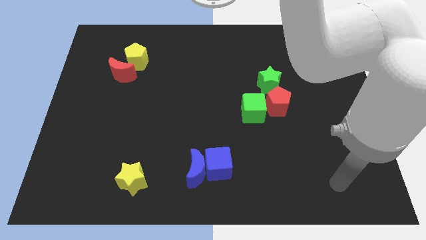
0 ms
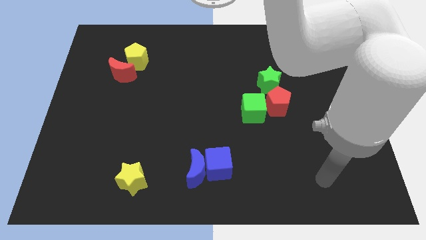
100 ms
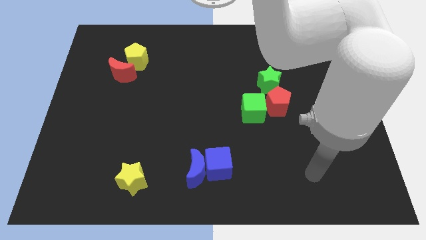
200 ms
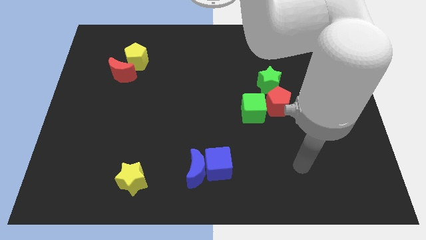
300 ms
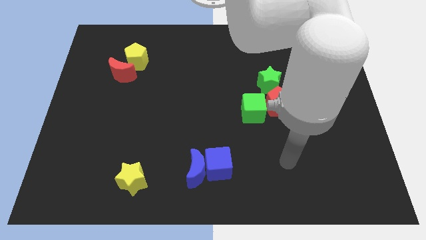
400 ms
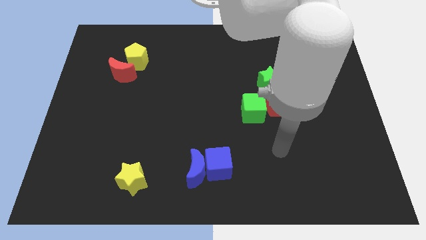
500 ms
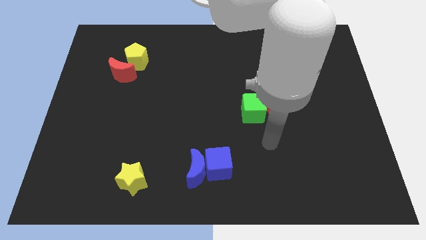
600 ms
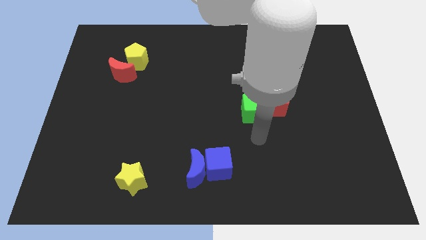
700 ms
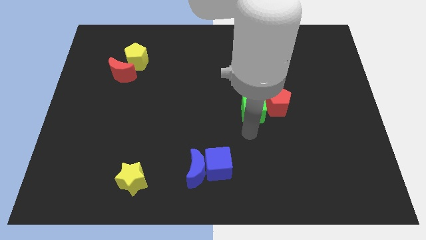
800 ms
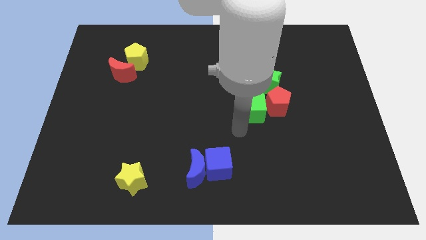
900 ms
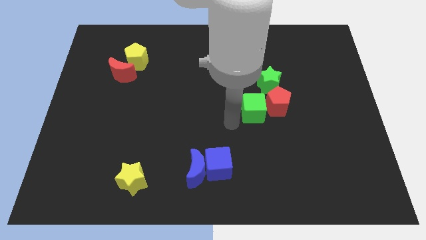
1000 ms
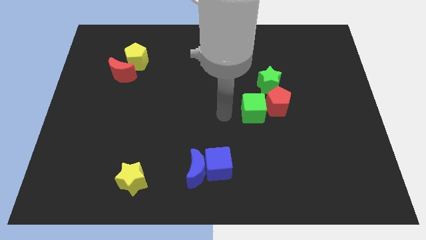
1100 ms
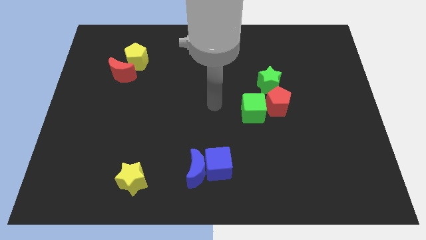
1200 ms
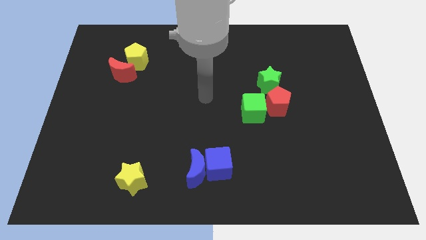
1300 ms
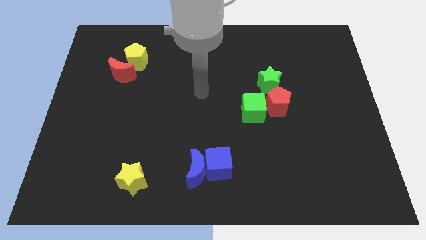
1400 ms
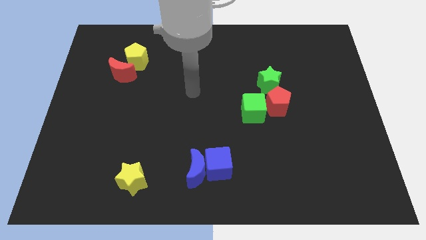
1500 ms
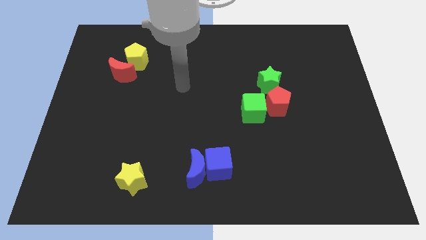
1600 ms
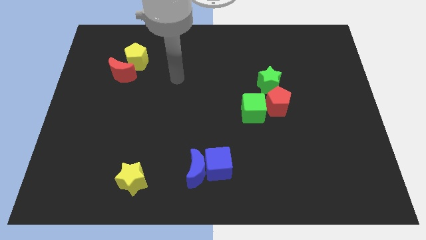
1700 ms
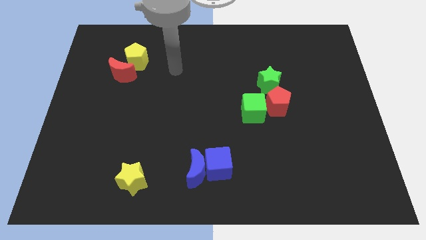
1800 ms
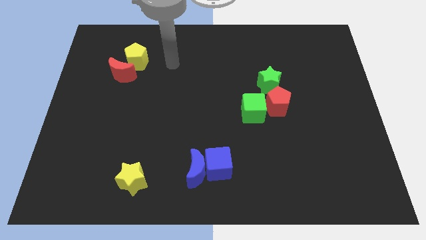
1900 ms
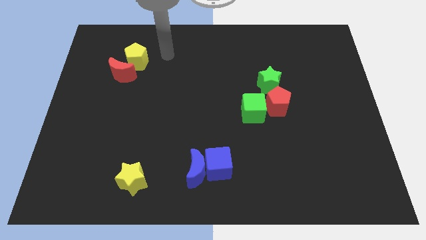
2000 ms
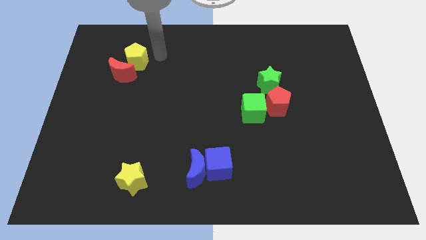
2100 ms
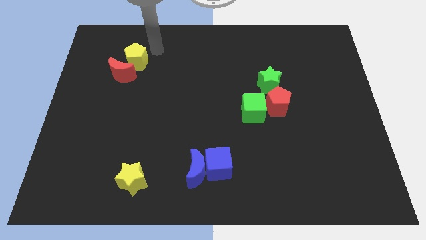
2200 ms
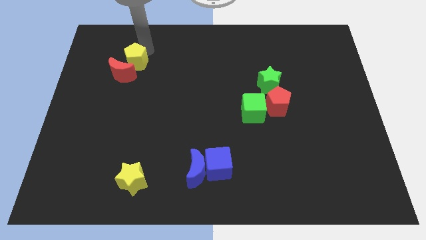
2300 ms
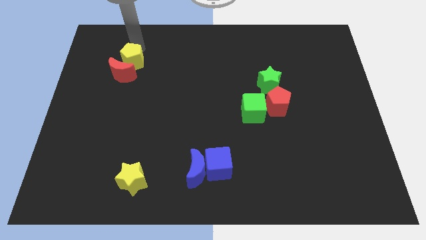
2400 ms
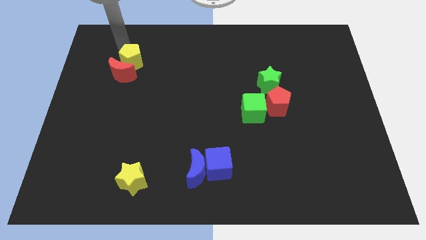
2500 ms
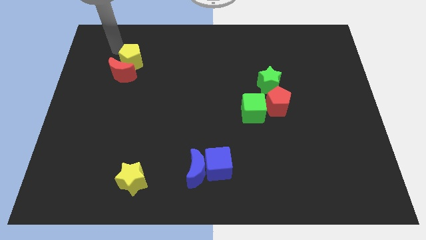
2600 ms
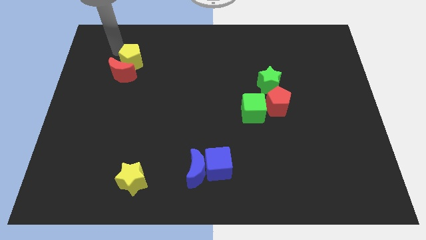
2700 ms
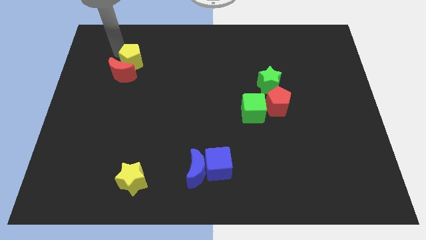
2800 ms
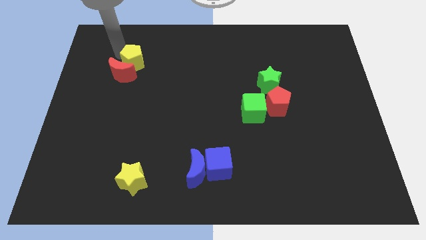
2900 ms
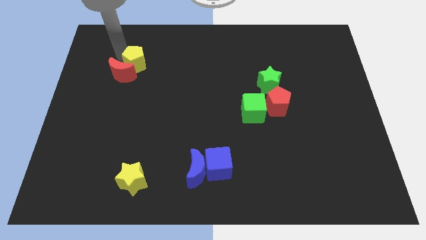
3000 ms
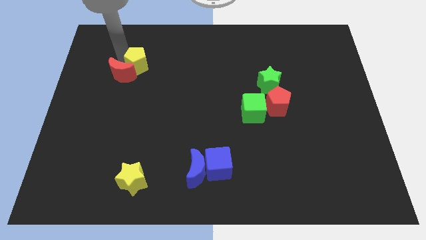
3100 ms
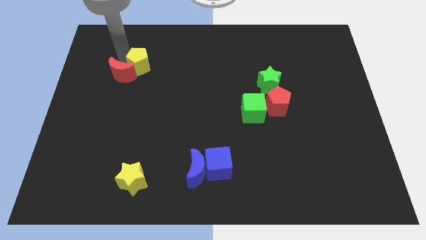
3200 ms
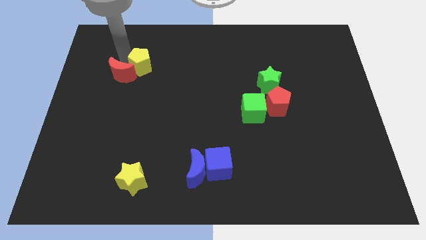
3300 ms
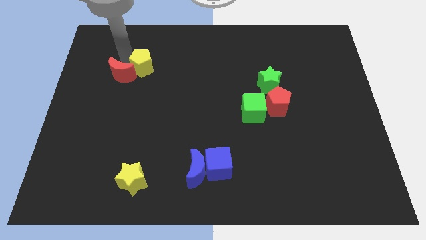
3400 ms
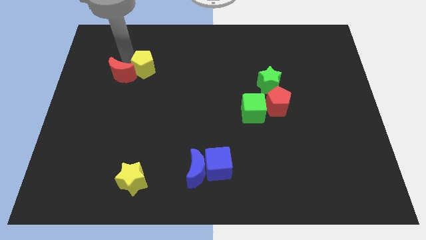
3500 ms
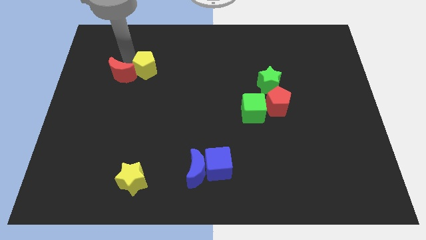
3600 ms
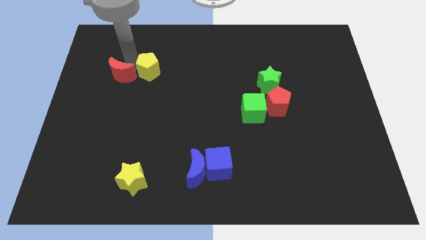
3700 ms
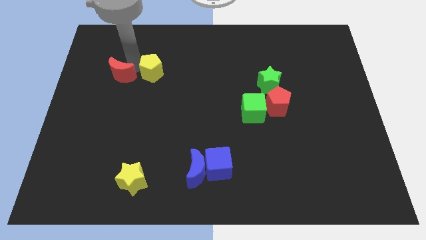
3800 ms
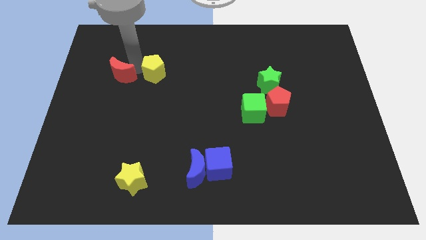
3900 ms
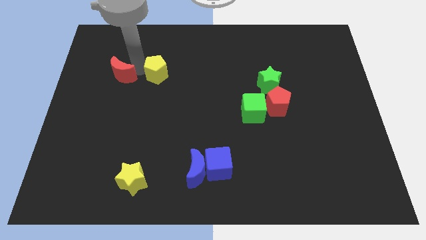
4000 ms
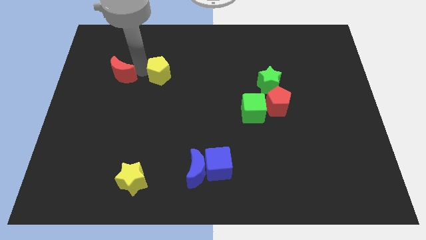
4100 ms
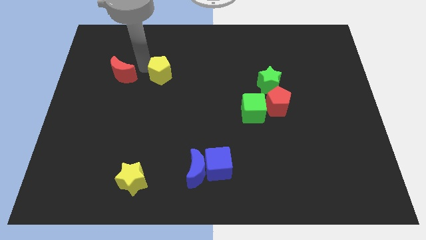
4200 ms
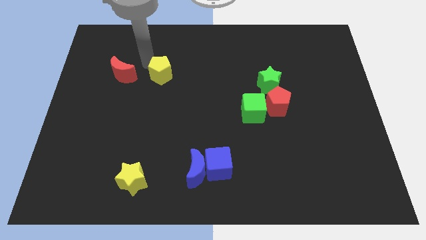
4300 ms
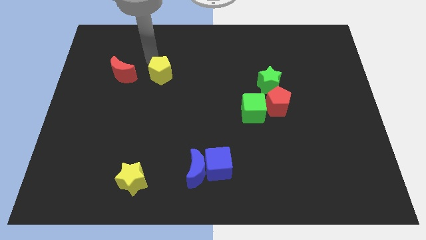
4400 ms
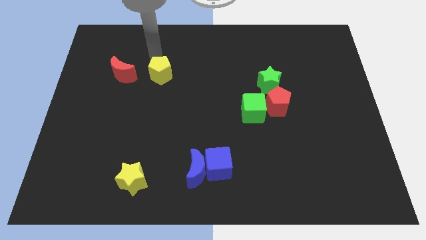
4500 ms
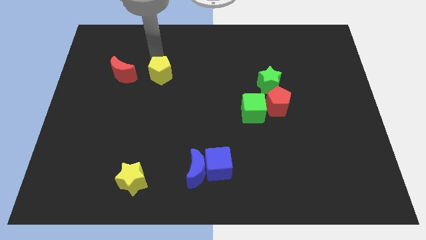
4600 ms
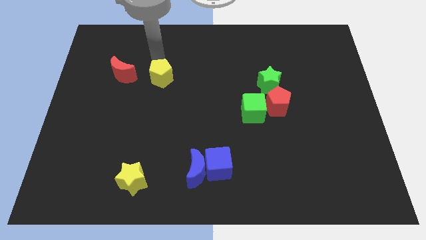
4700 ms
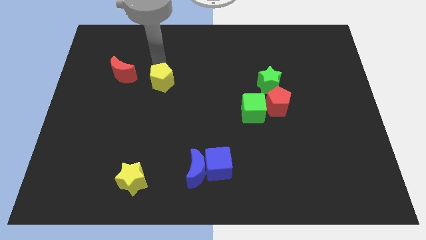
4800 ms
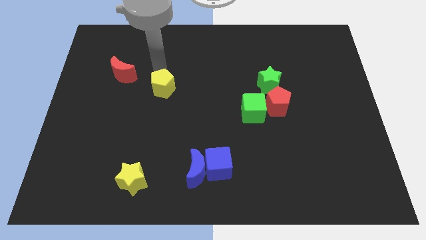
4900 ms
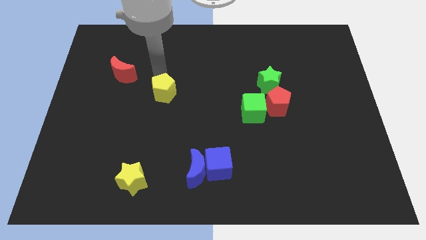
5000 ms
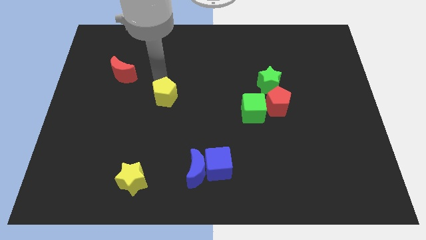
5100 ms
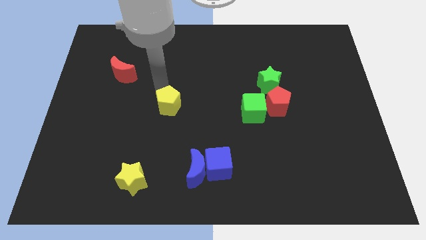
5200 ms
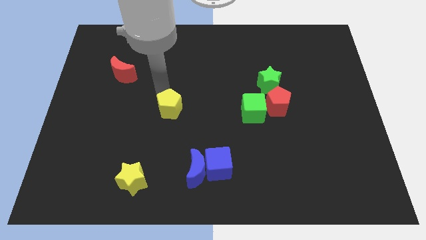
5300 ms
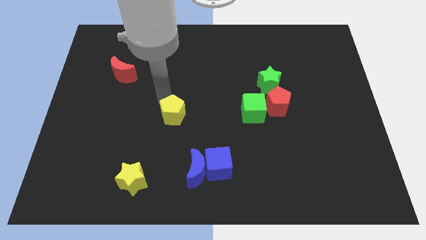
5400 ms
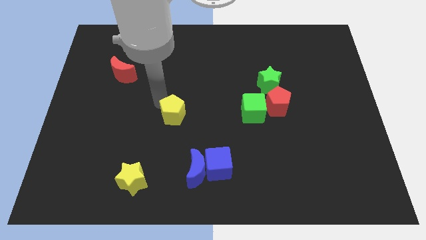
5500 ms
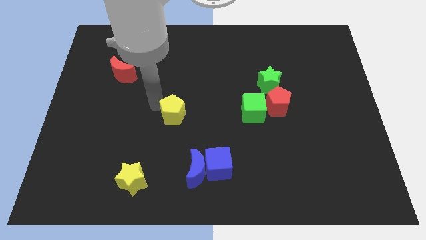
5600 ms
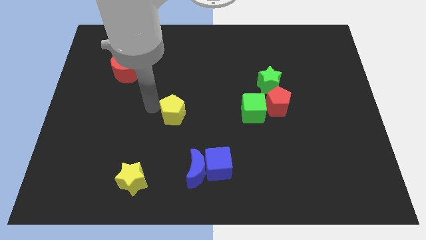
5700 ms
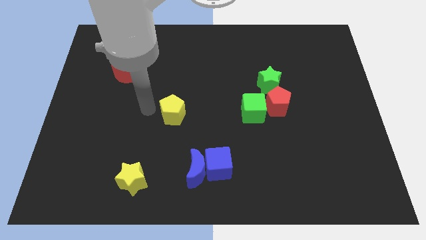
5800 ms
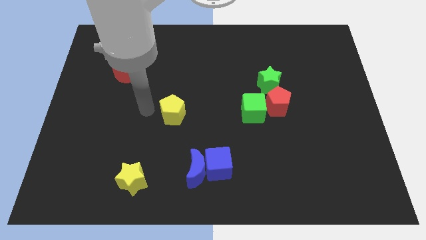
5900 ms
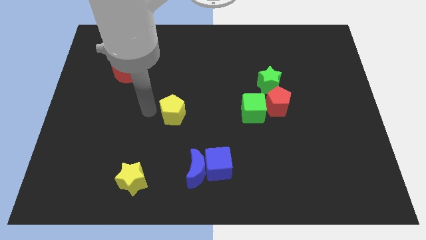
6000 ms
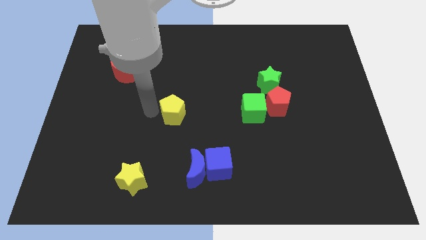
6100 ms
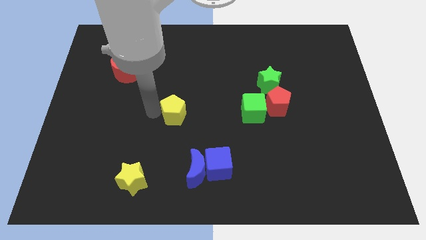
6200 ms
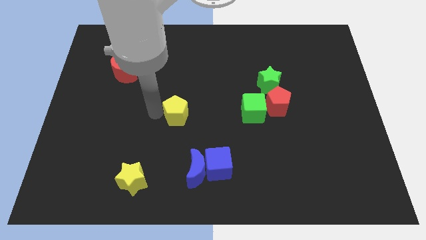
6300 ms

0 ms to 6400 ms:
move the yellow pentagon diagonally down and to the right

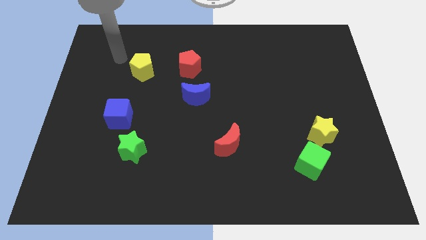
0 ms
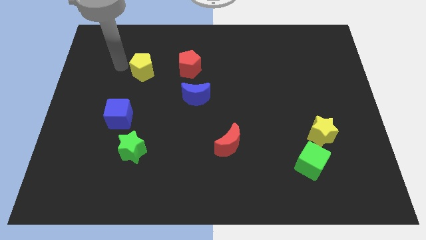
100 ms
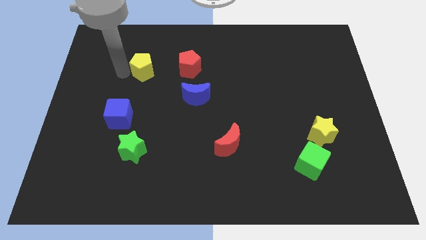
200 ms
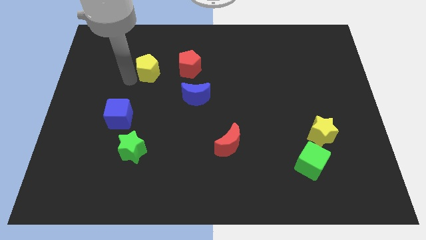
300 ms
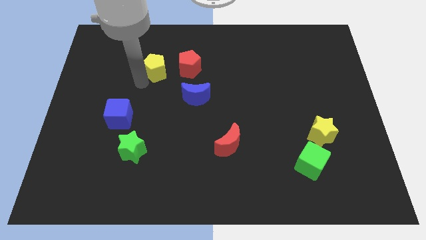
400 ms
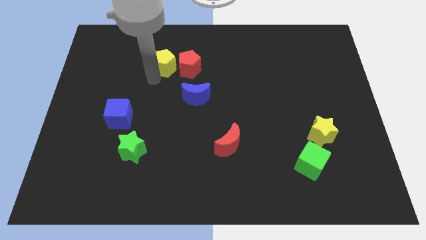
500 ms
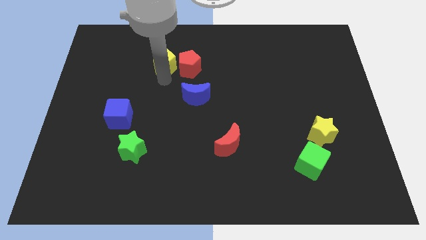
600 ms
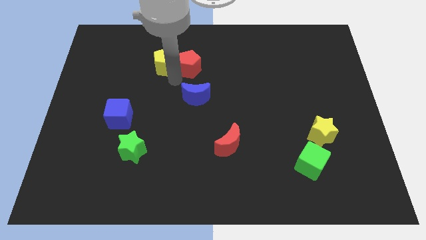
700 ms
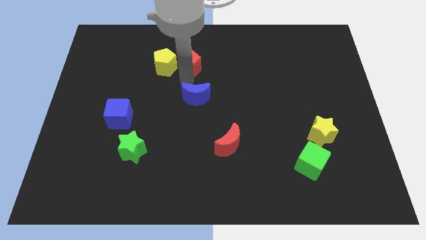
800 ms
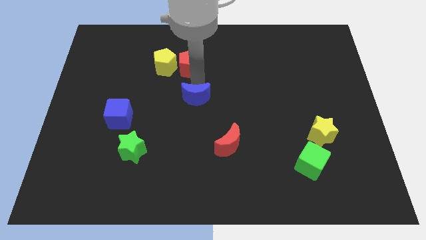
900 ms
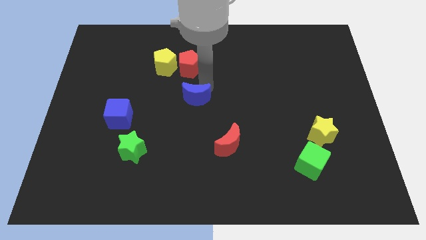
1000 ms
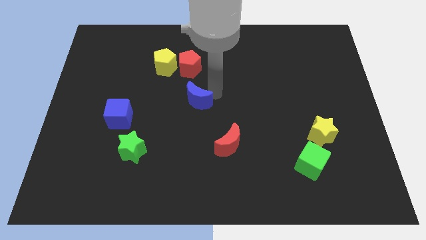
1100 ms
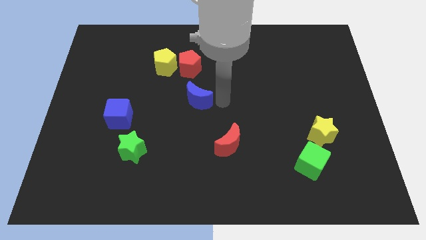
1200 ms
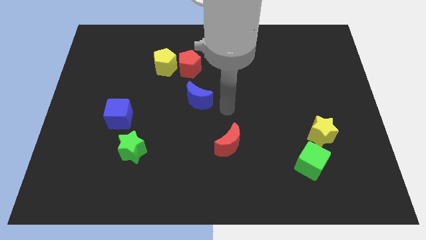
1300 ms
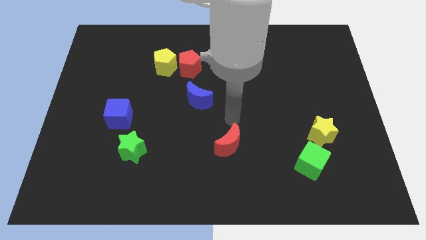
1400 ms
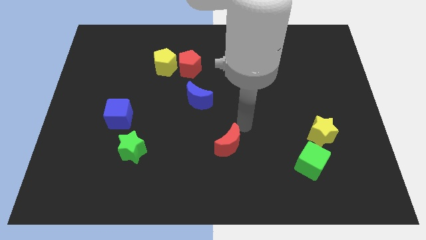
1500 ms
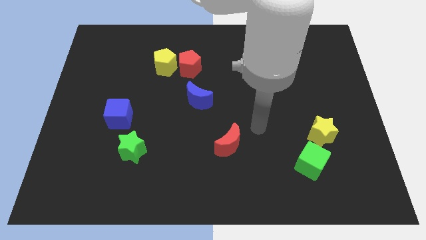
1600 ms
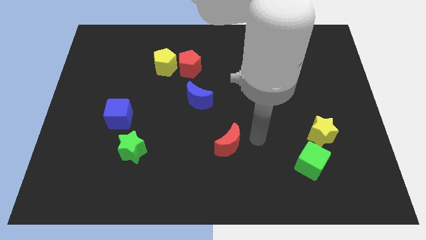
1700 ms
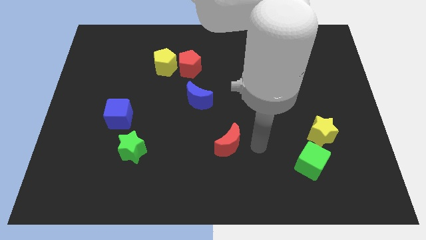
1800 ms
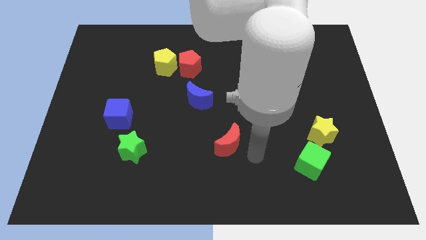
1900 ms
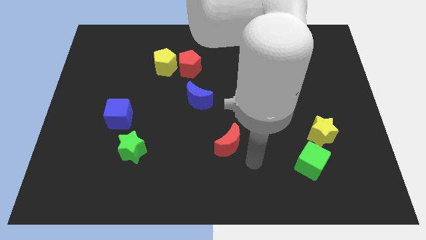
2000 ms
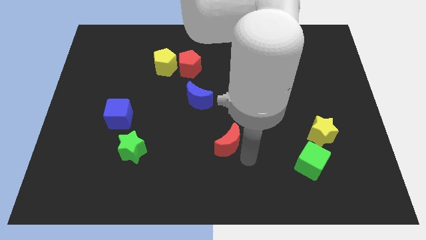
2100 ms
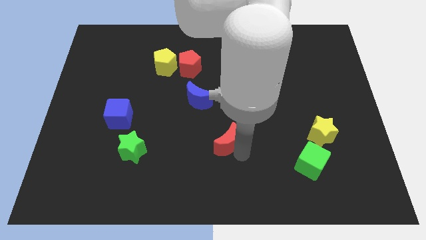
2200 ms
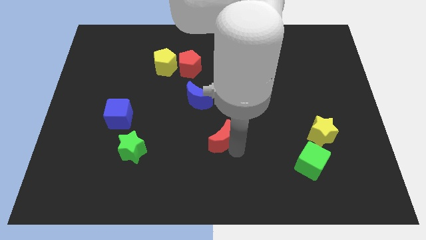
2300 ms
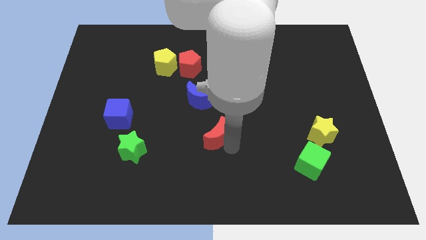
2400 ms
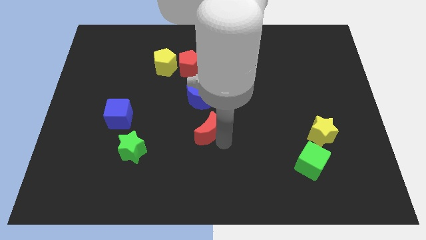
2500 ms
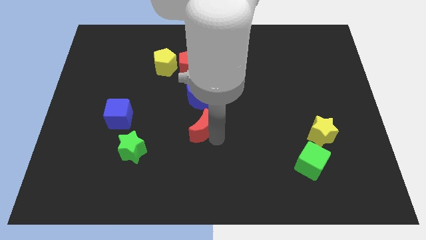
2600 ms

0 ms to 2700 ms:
slightly slide the red moon upwards and then to the left
